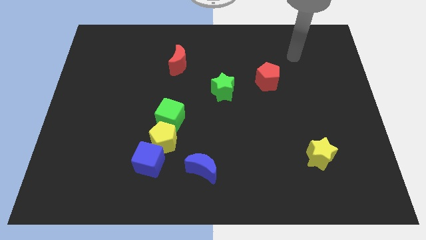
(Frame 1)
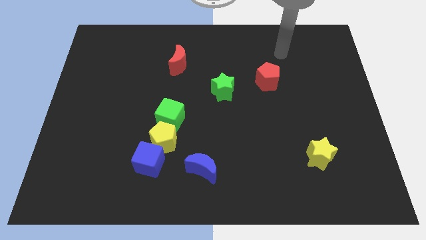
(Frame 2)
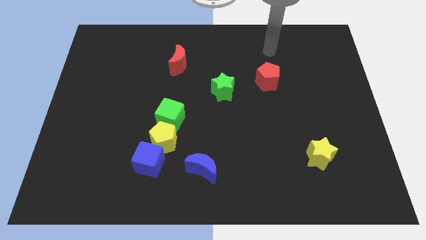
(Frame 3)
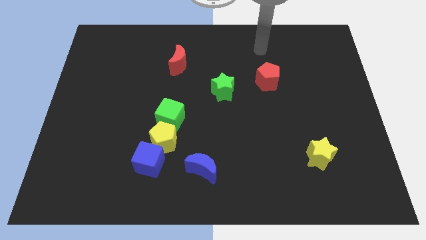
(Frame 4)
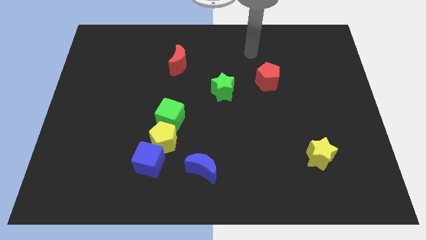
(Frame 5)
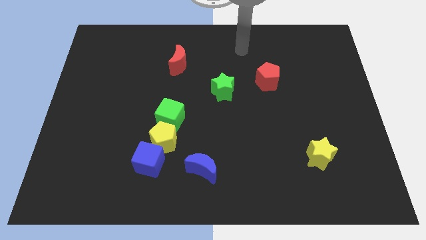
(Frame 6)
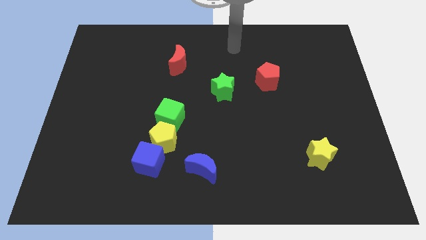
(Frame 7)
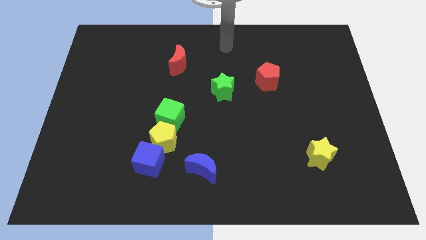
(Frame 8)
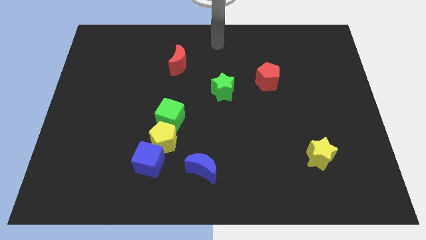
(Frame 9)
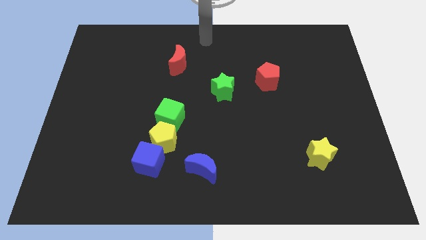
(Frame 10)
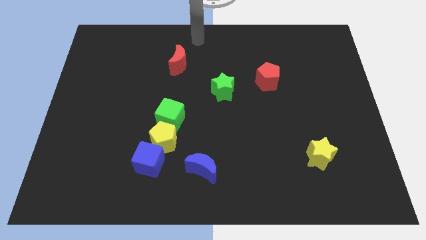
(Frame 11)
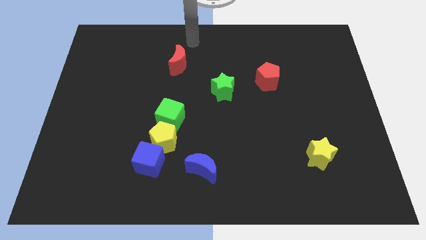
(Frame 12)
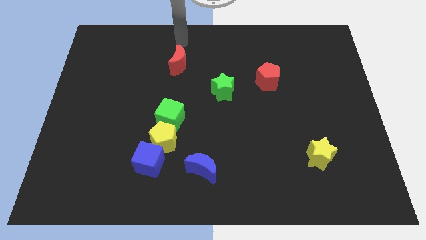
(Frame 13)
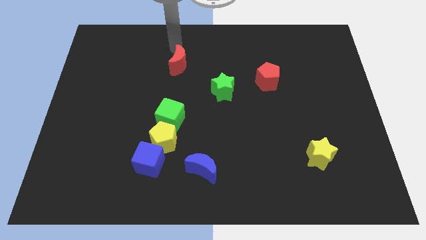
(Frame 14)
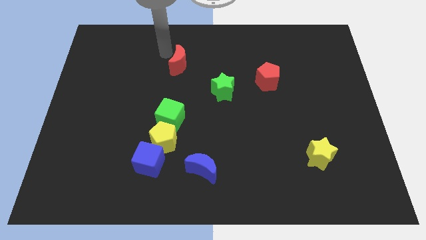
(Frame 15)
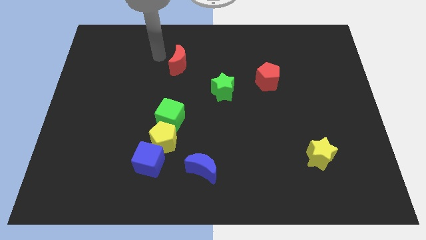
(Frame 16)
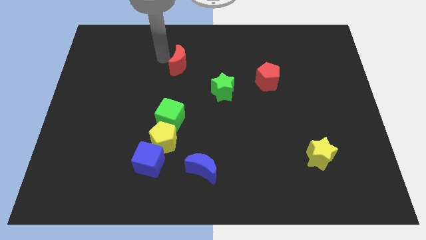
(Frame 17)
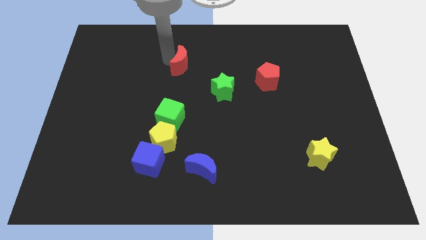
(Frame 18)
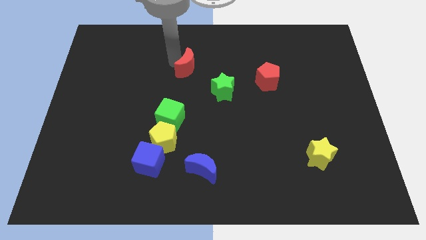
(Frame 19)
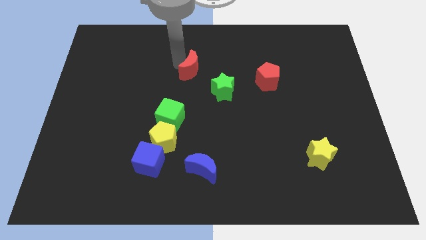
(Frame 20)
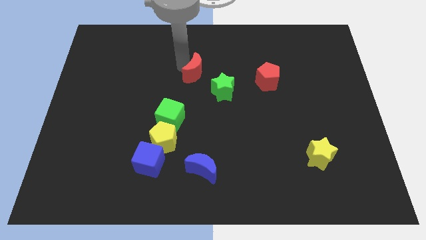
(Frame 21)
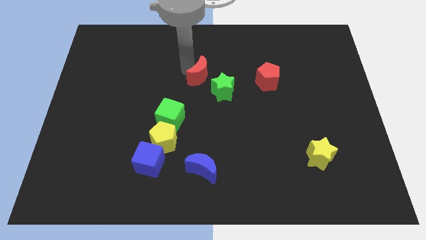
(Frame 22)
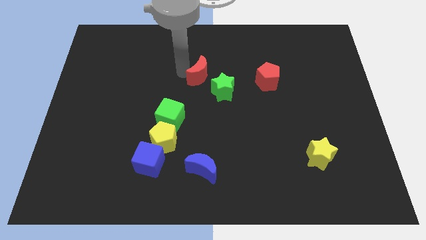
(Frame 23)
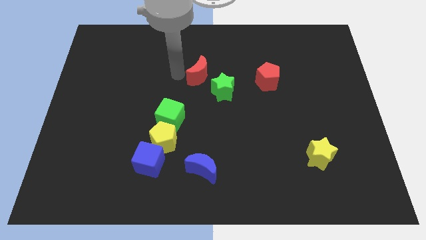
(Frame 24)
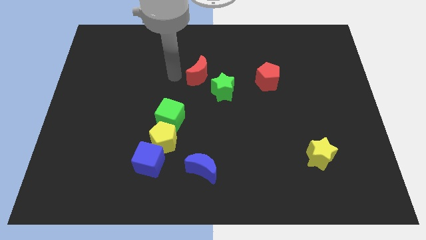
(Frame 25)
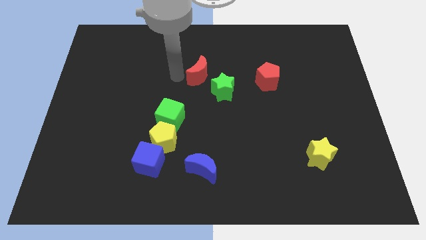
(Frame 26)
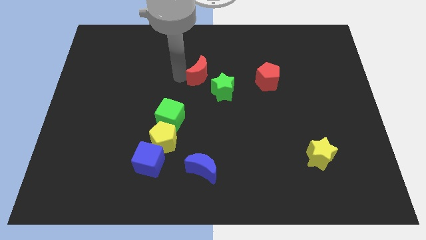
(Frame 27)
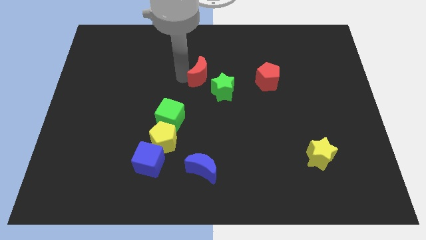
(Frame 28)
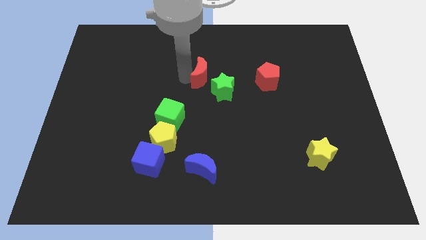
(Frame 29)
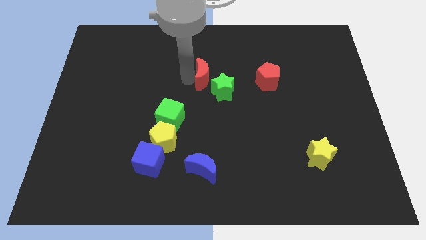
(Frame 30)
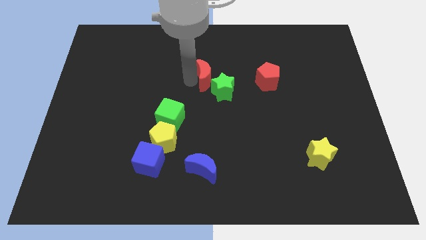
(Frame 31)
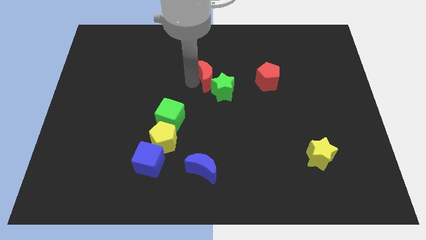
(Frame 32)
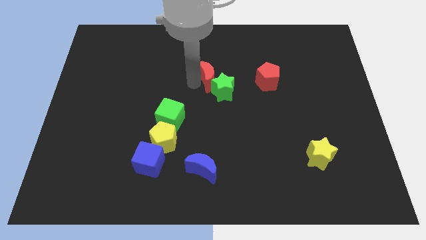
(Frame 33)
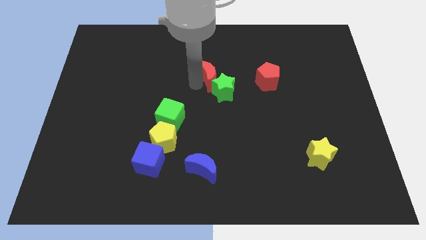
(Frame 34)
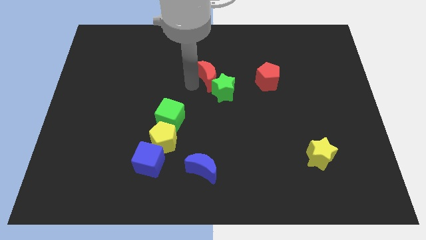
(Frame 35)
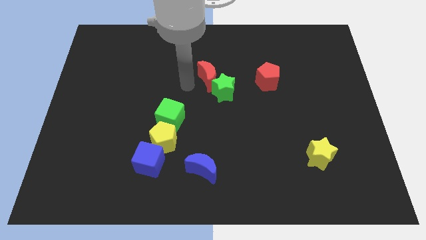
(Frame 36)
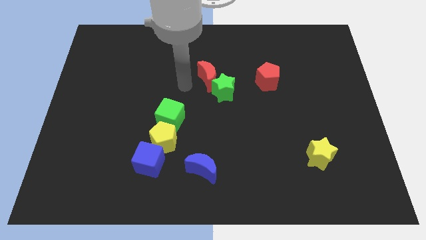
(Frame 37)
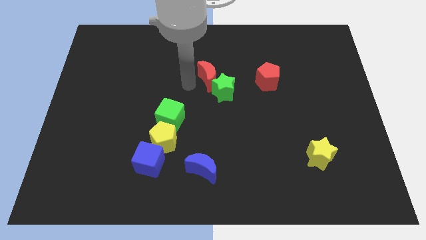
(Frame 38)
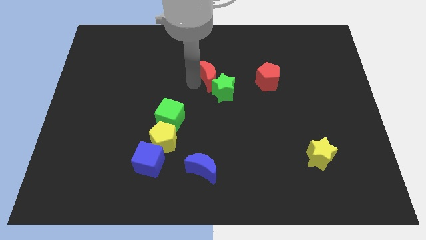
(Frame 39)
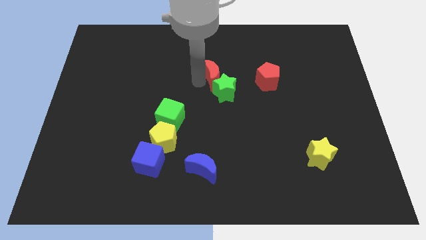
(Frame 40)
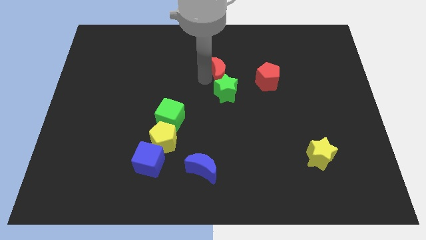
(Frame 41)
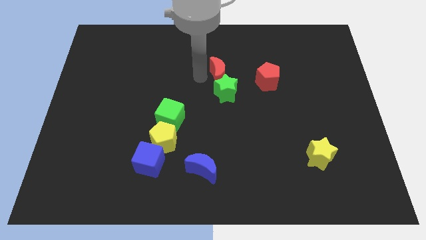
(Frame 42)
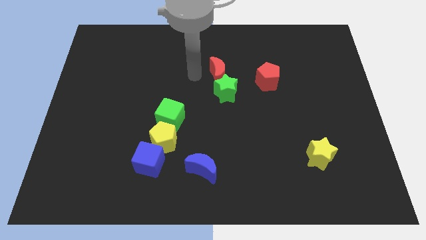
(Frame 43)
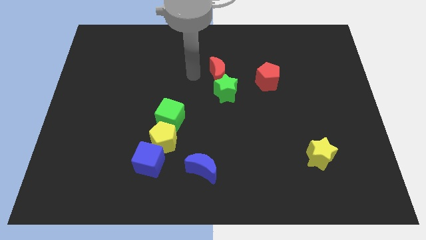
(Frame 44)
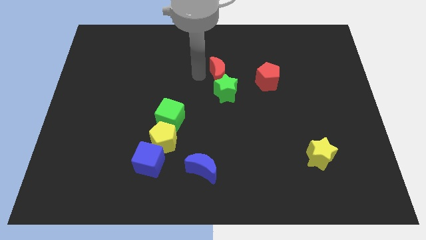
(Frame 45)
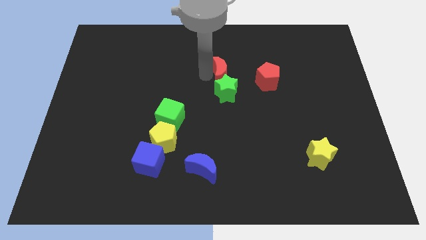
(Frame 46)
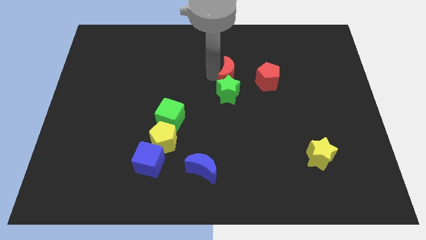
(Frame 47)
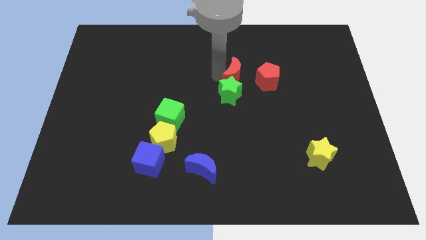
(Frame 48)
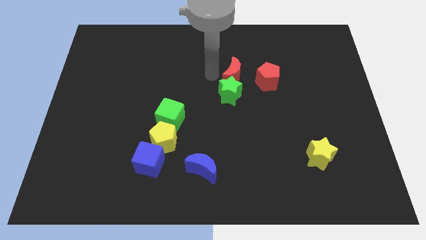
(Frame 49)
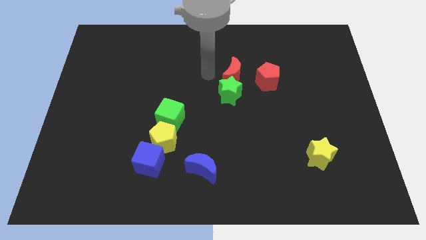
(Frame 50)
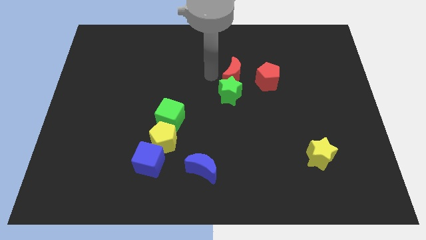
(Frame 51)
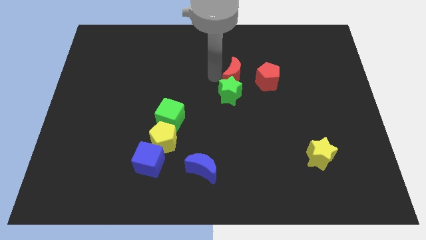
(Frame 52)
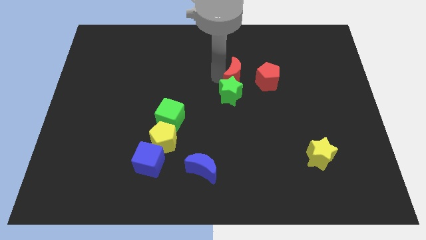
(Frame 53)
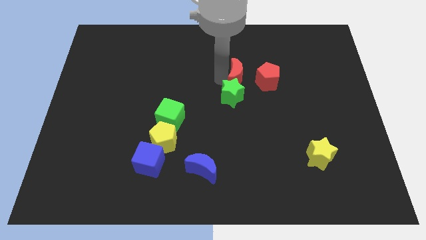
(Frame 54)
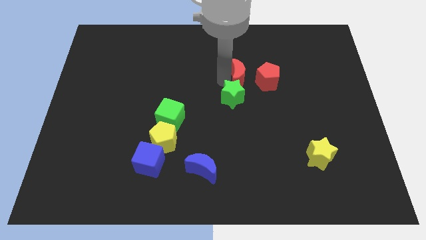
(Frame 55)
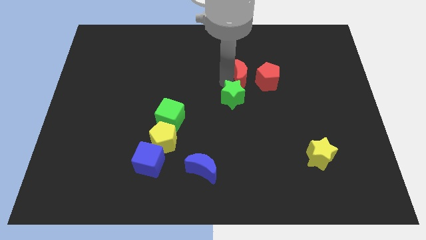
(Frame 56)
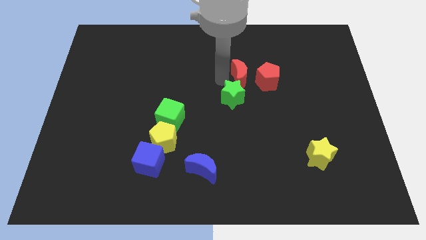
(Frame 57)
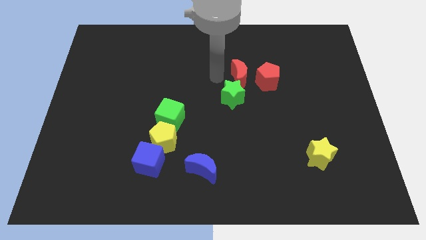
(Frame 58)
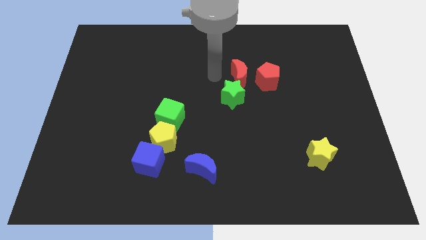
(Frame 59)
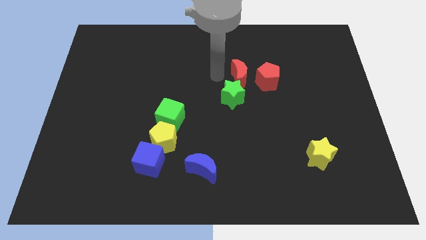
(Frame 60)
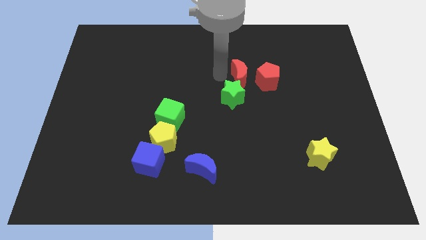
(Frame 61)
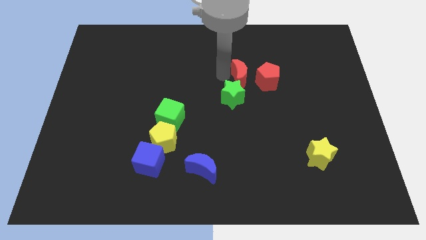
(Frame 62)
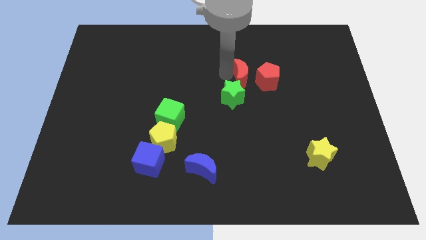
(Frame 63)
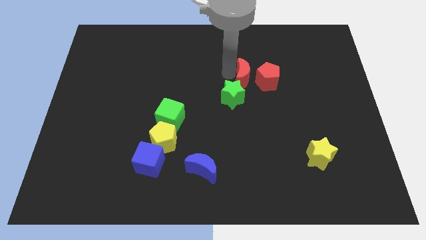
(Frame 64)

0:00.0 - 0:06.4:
put the red moon close to the red pentagon

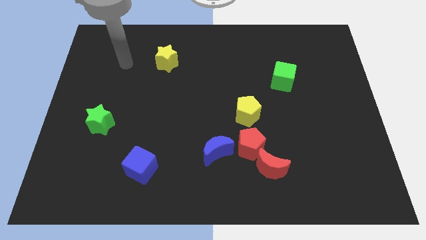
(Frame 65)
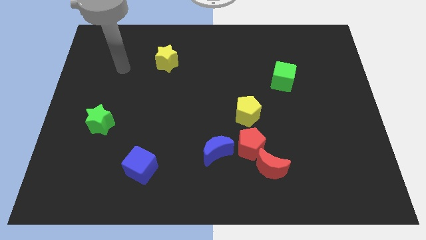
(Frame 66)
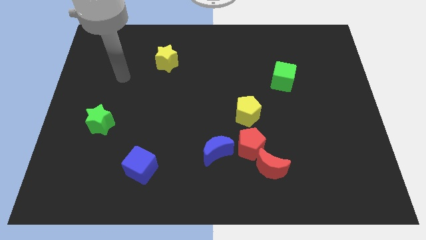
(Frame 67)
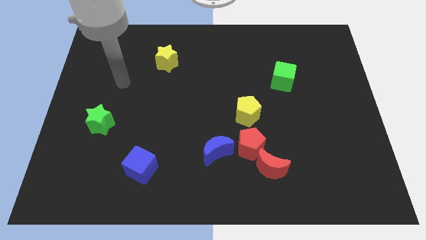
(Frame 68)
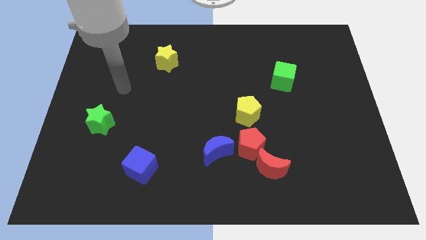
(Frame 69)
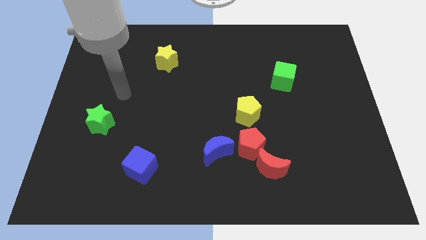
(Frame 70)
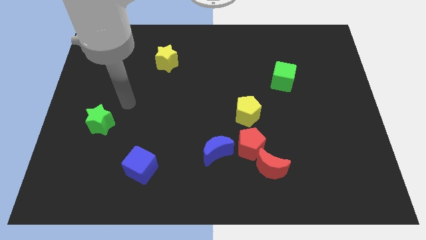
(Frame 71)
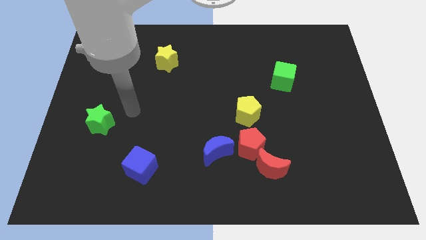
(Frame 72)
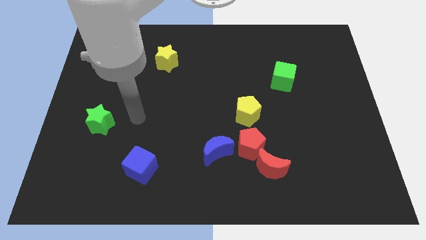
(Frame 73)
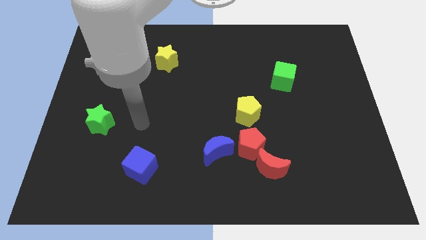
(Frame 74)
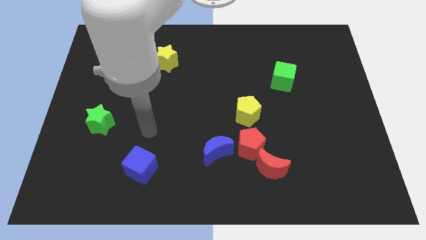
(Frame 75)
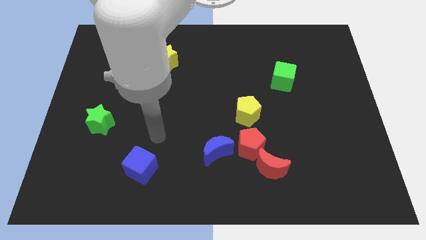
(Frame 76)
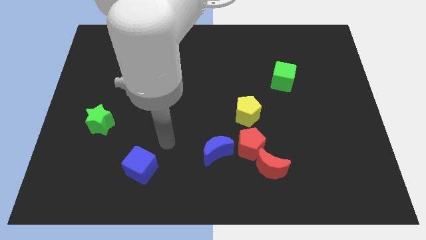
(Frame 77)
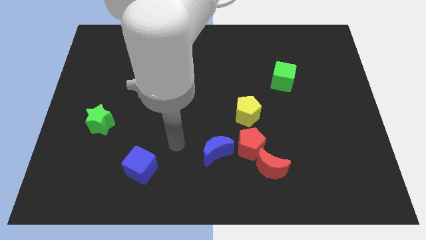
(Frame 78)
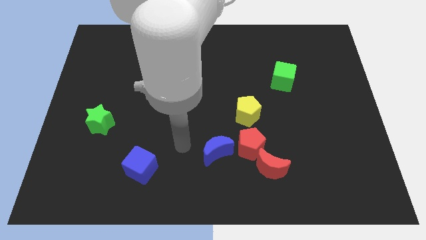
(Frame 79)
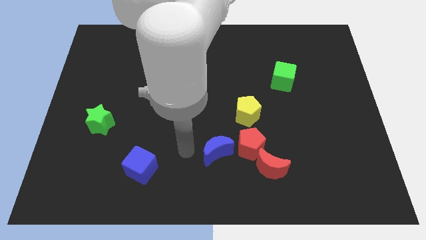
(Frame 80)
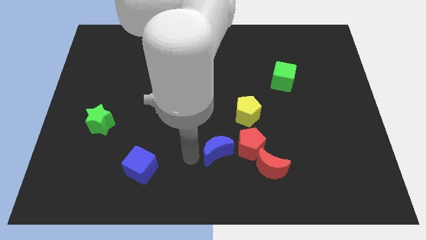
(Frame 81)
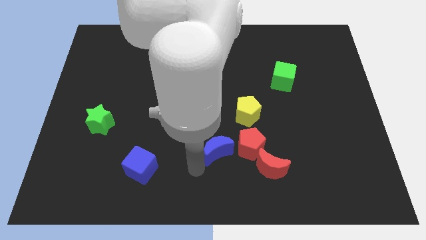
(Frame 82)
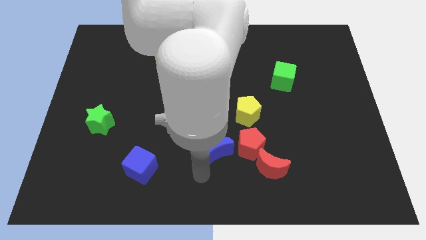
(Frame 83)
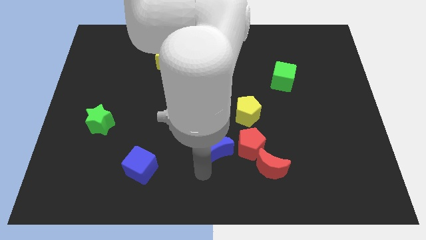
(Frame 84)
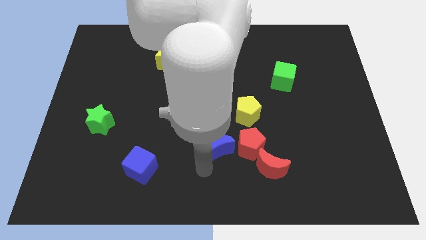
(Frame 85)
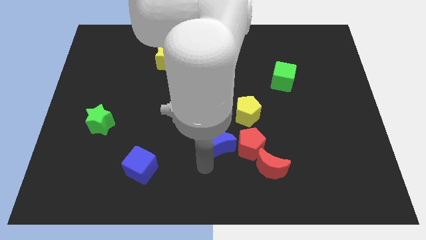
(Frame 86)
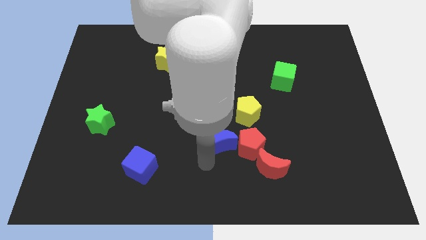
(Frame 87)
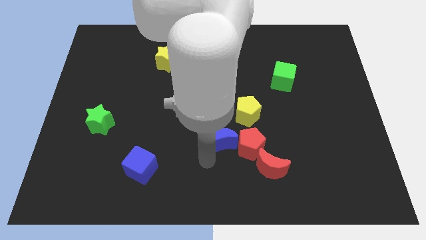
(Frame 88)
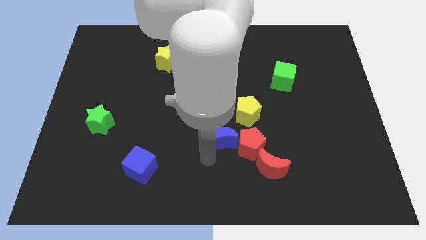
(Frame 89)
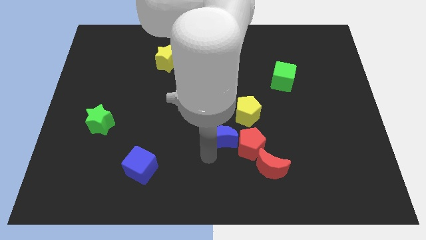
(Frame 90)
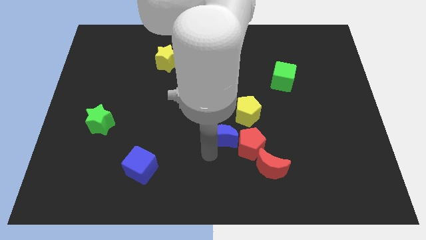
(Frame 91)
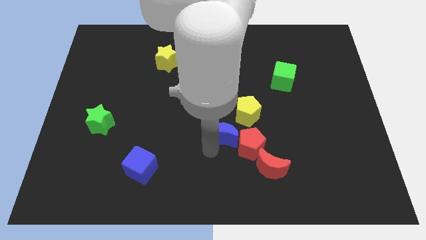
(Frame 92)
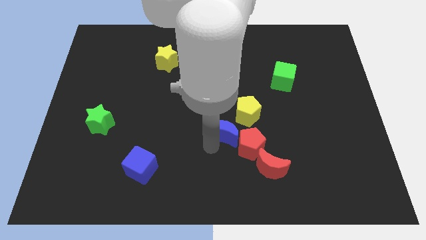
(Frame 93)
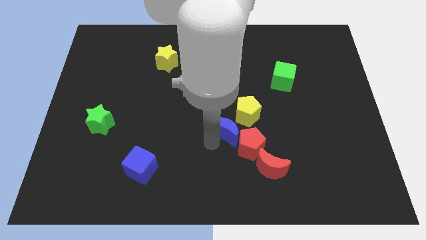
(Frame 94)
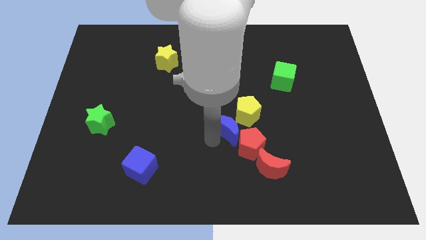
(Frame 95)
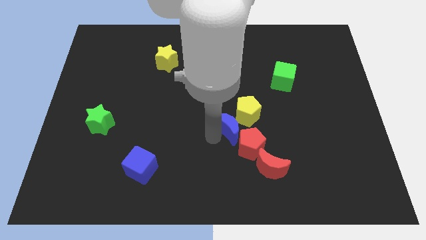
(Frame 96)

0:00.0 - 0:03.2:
slide the blue moon close to the yellow pentagon
